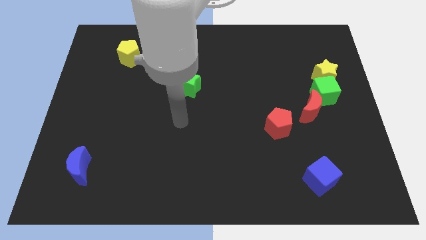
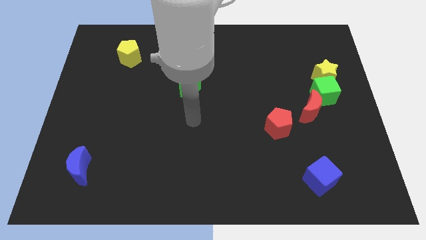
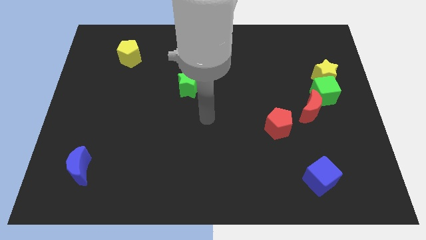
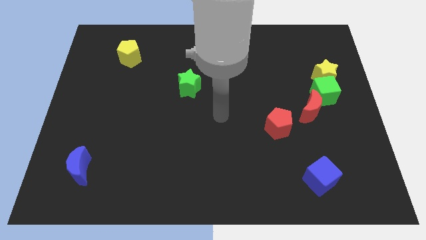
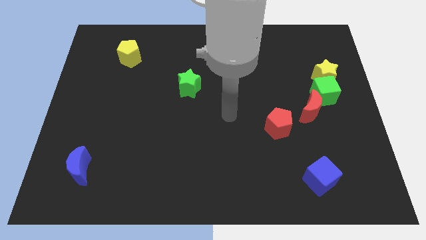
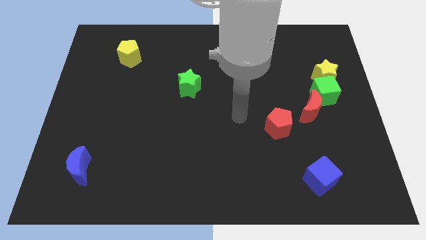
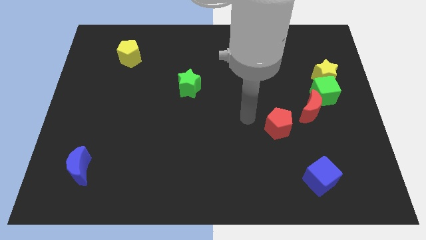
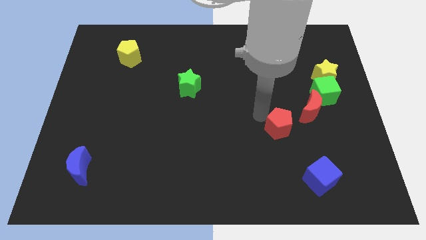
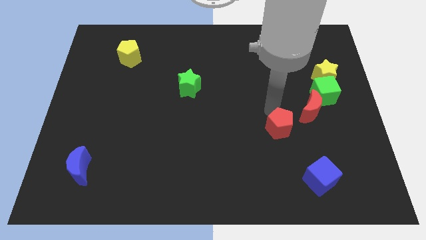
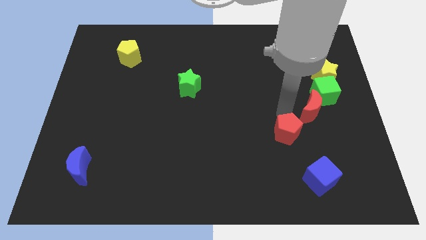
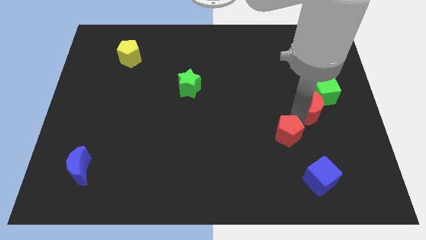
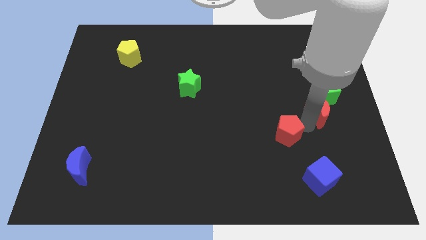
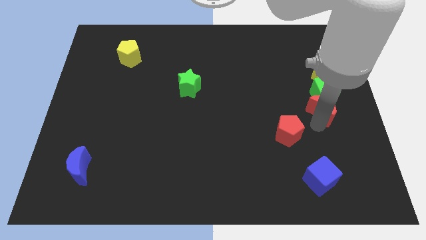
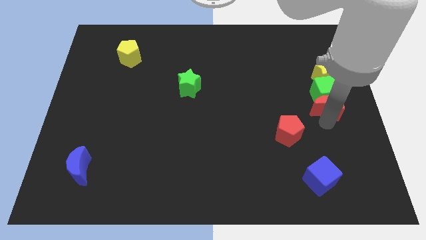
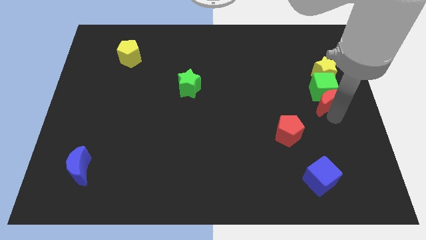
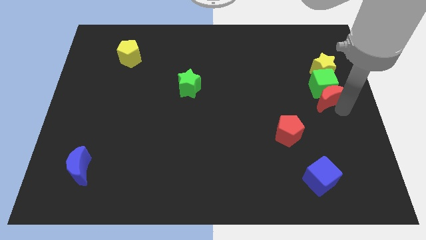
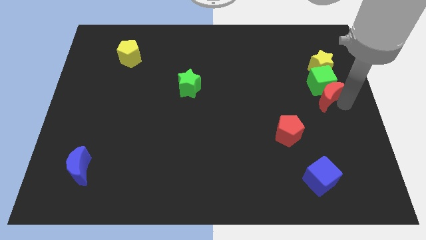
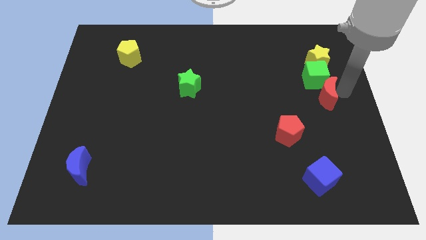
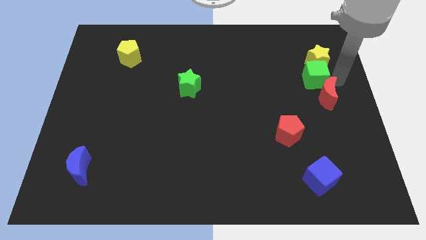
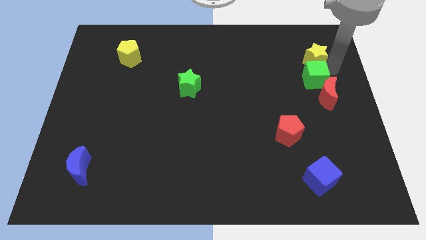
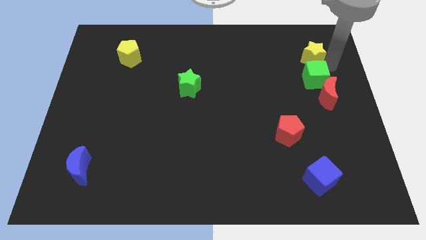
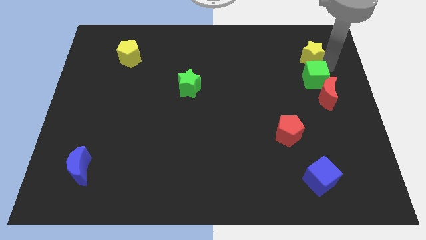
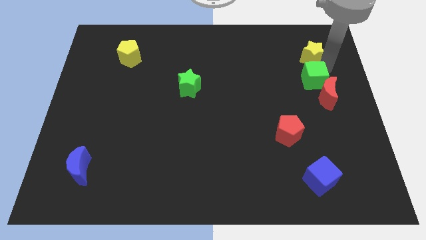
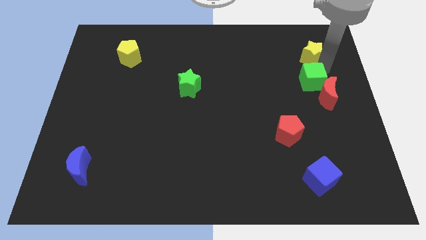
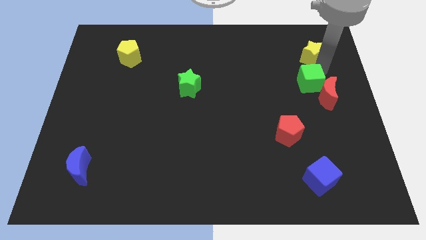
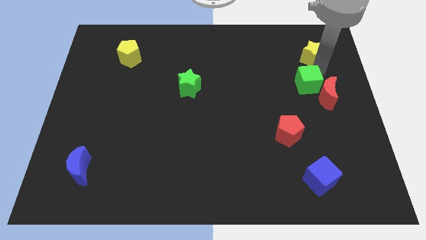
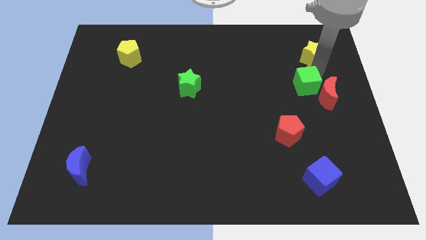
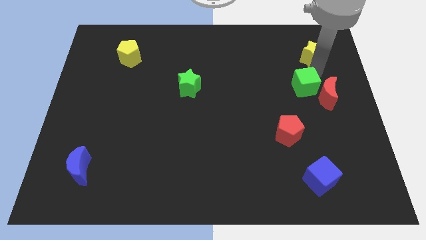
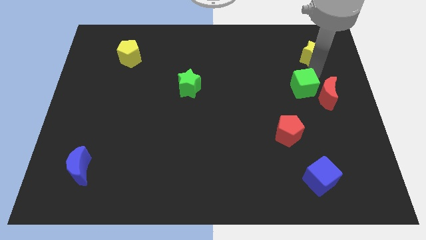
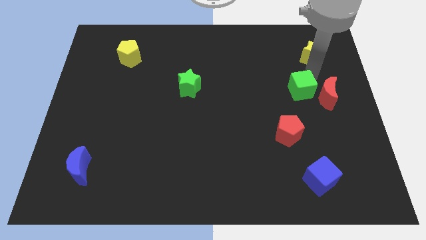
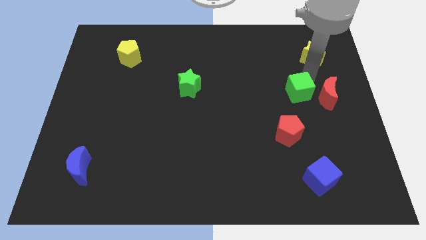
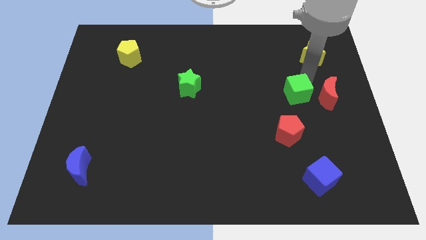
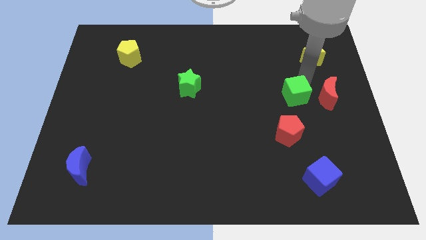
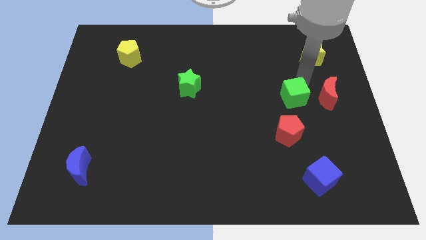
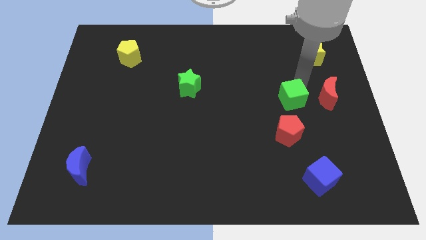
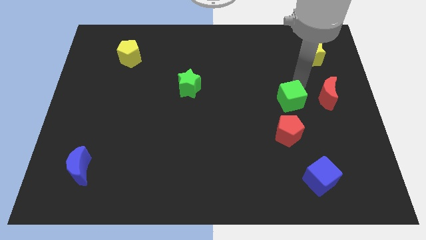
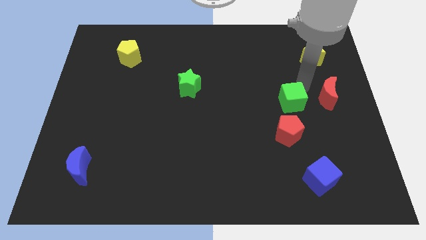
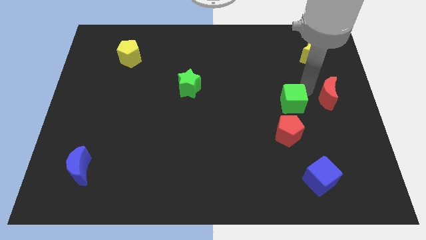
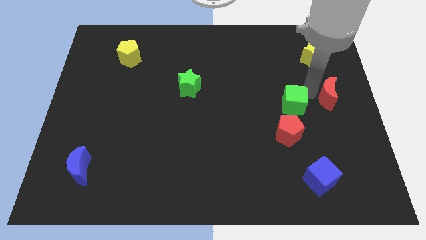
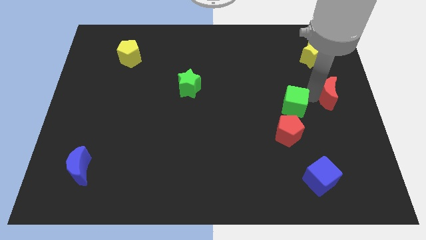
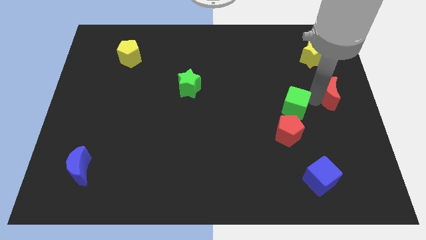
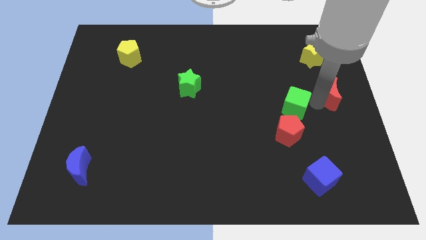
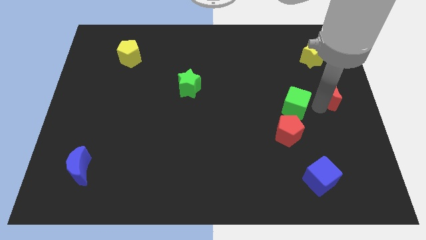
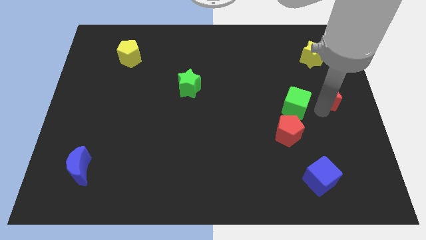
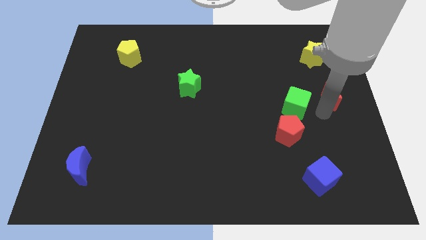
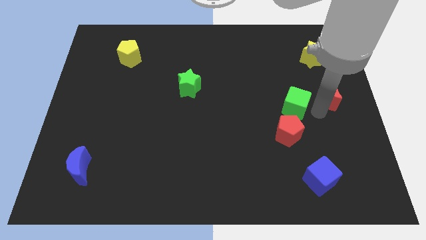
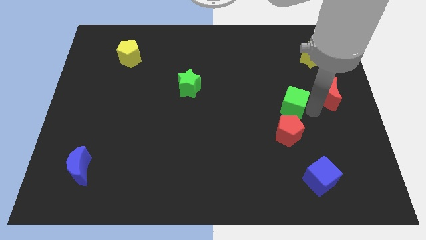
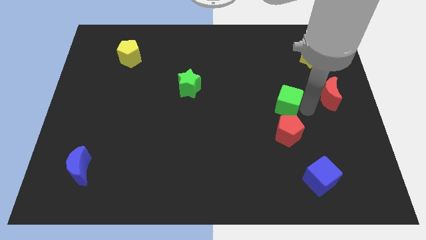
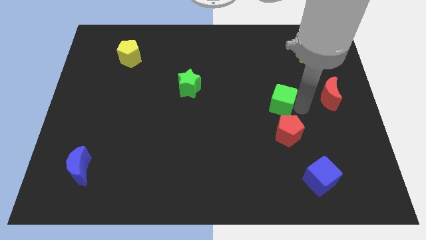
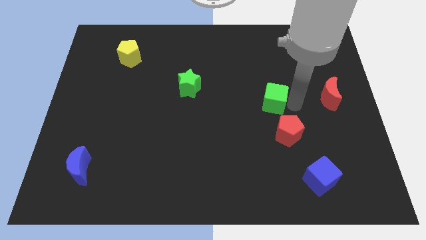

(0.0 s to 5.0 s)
push the green cube to the top left of the red pentagon

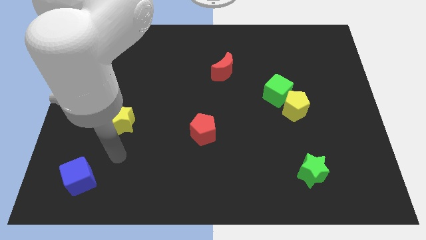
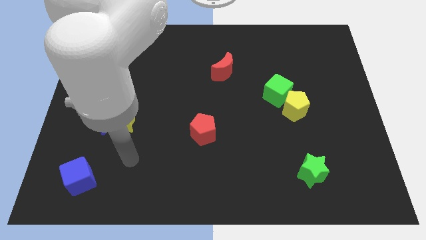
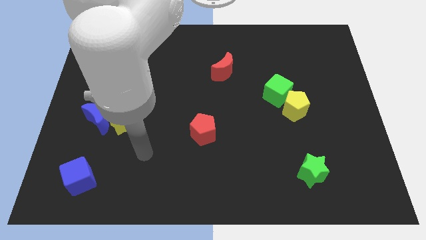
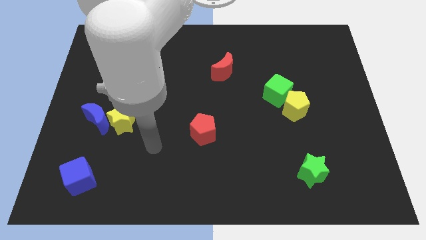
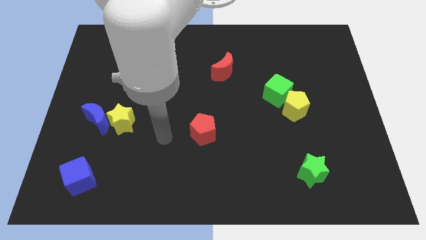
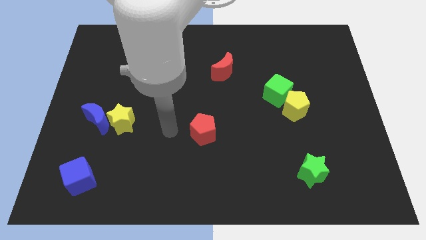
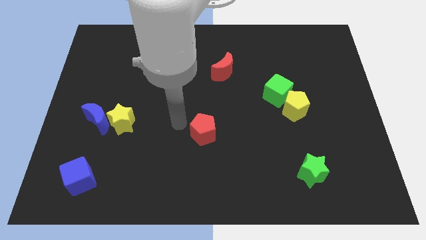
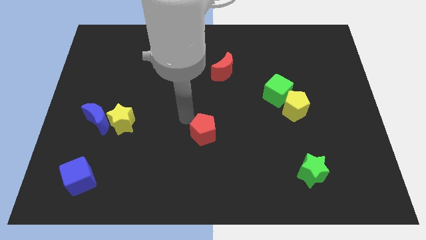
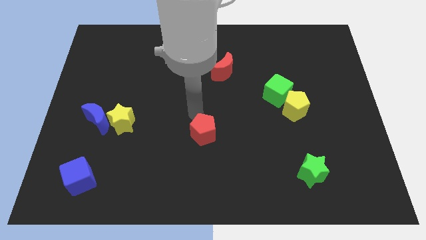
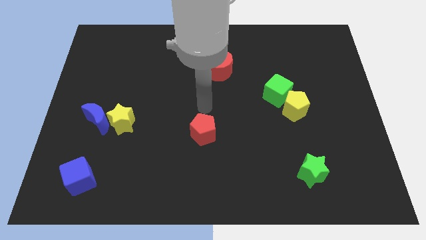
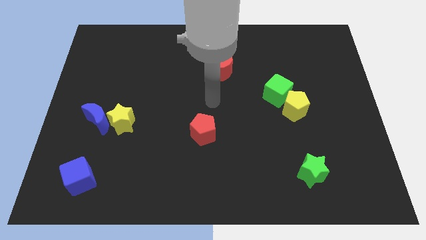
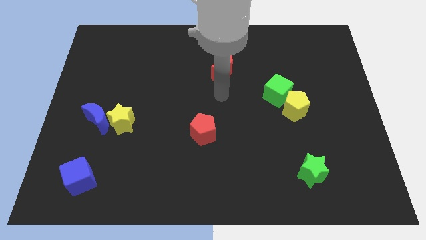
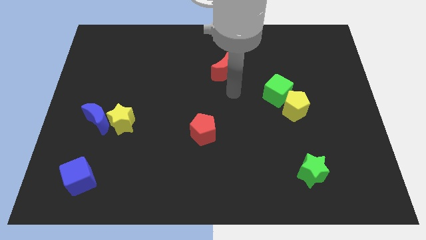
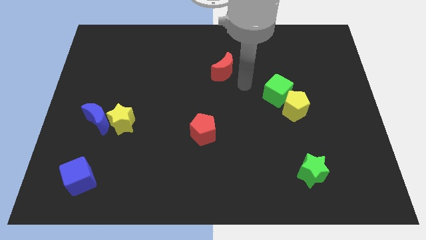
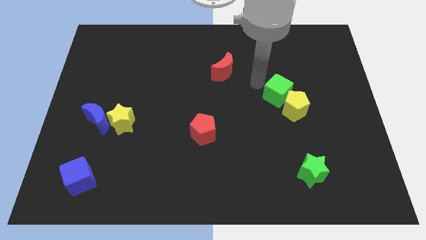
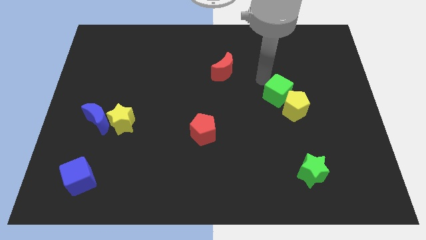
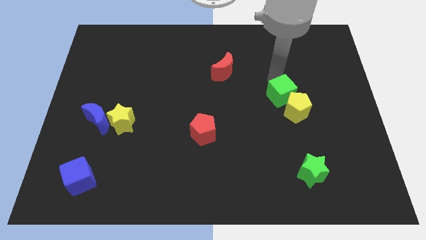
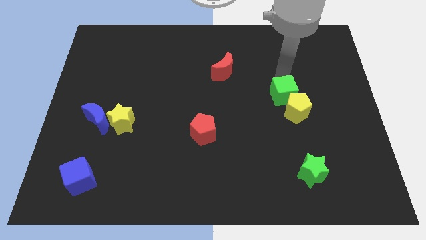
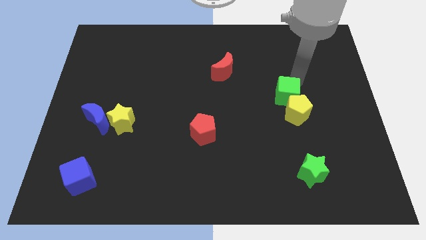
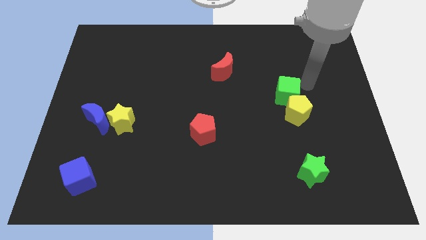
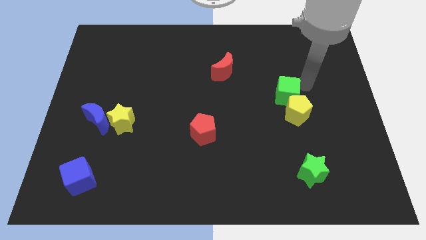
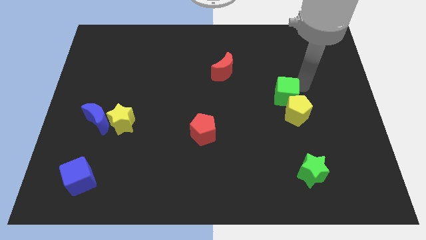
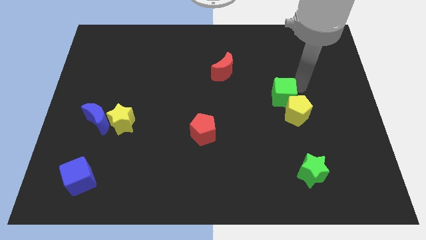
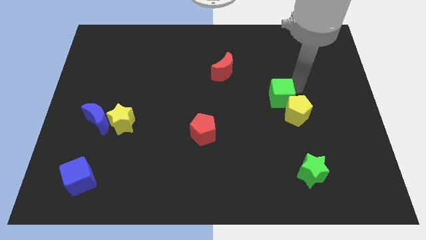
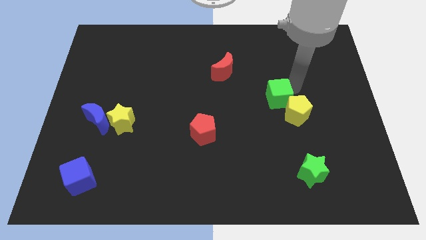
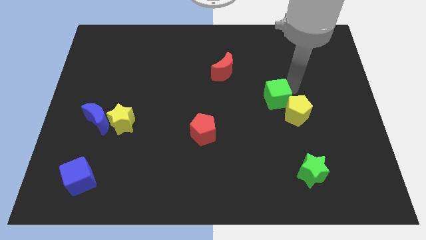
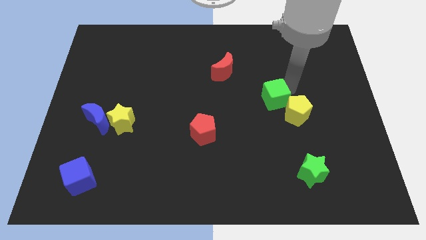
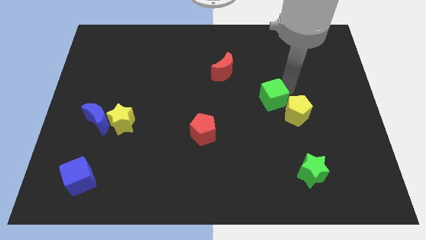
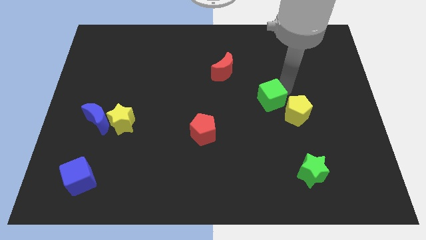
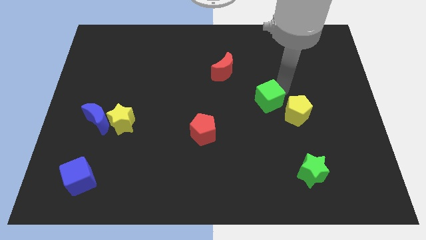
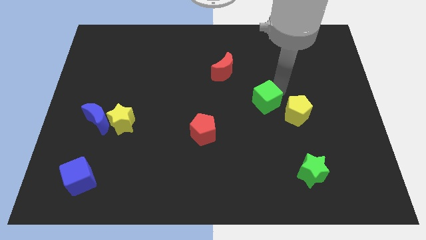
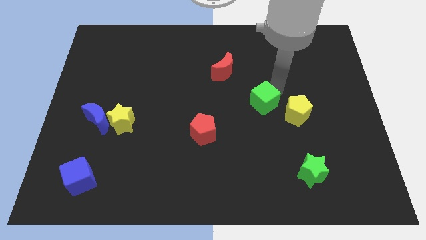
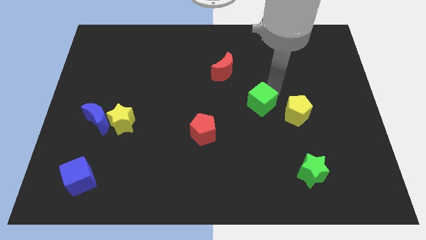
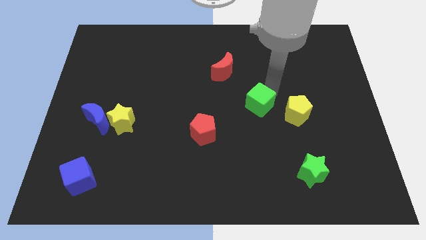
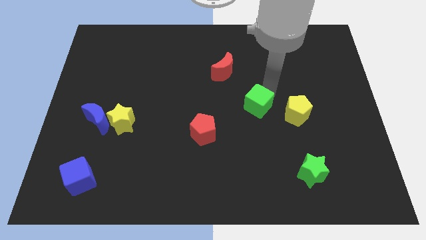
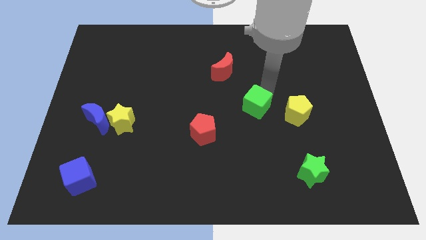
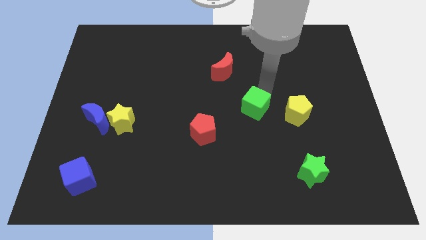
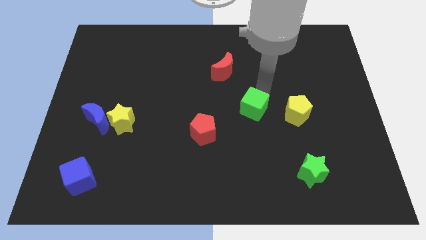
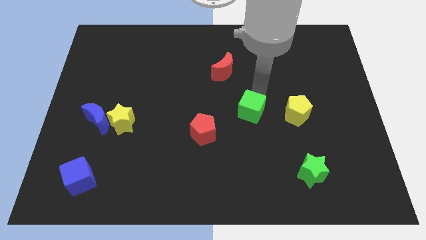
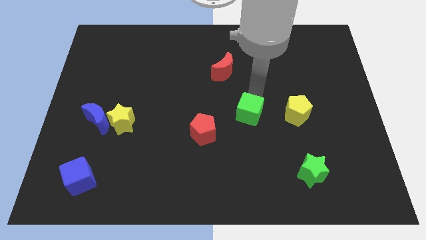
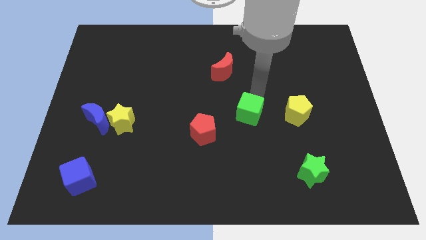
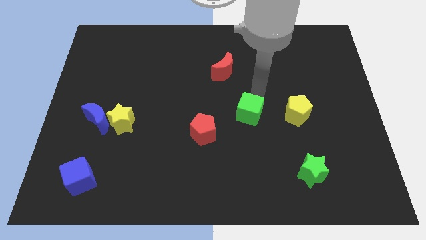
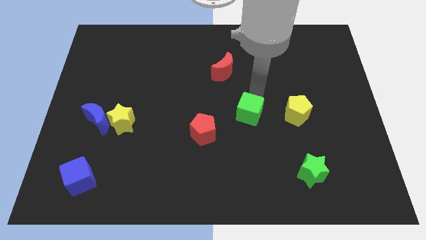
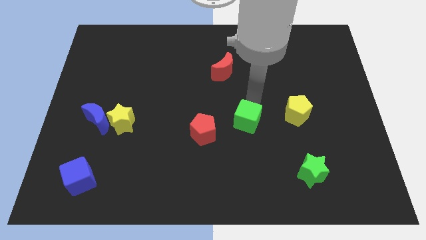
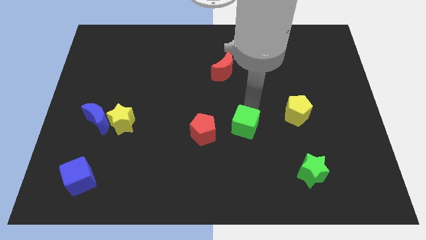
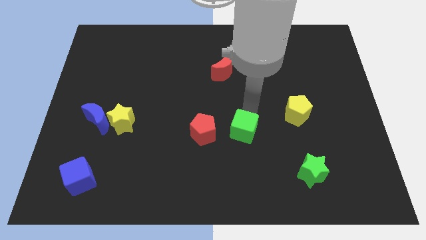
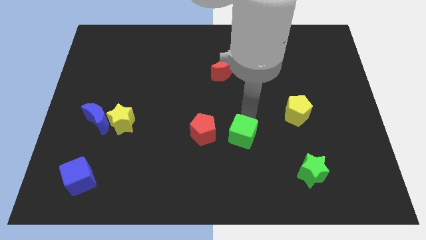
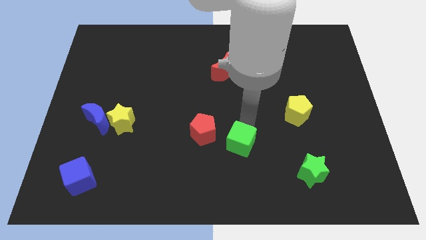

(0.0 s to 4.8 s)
slide the green cube to the bottom right side of the red pentagon
